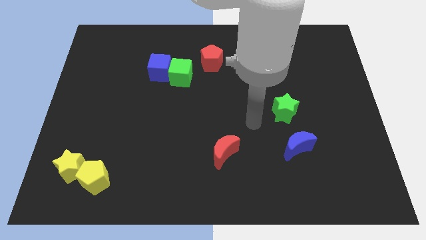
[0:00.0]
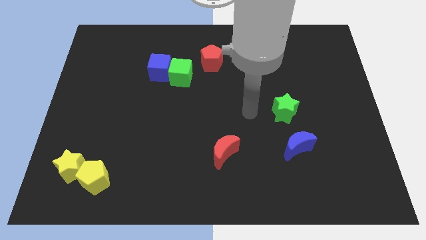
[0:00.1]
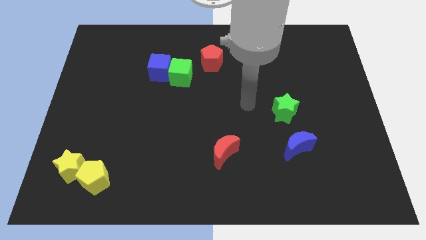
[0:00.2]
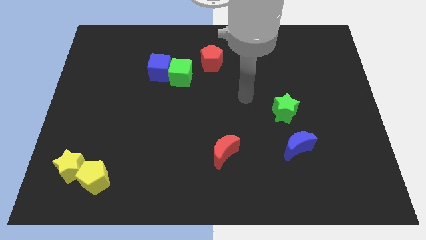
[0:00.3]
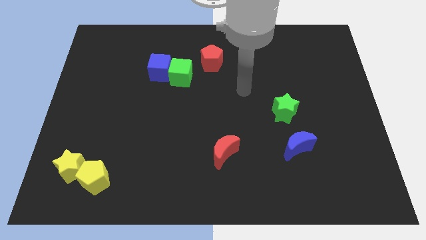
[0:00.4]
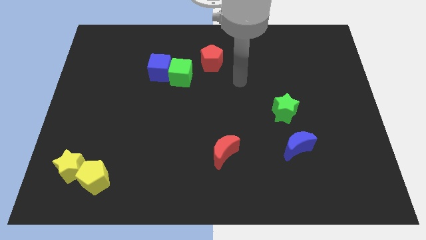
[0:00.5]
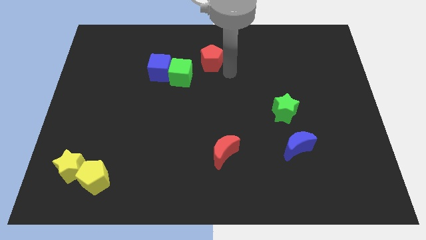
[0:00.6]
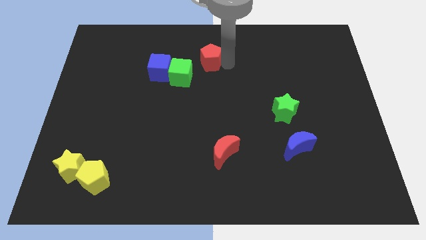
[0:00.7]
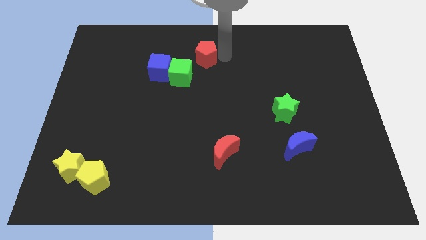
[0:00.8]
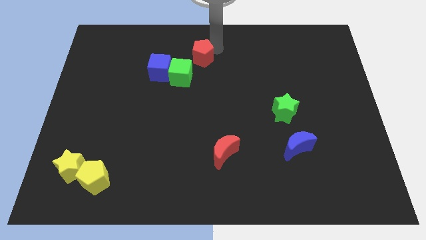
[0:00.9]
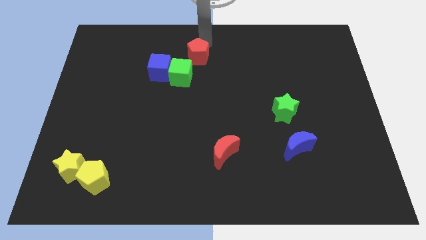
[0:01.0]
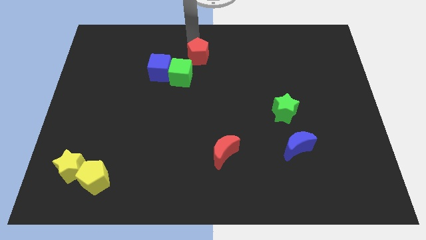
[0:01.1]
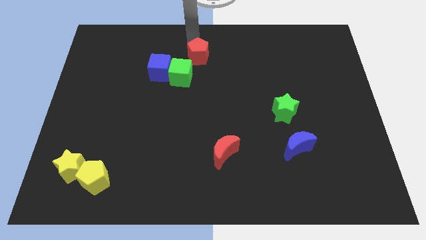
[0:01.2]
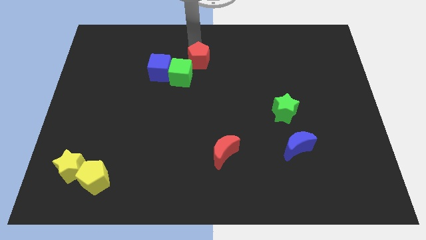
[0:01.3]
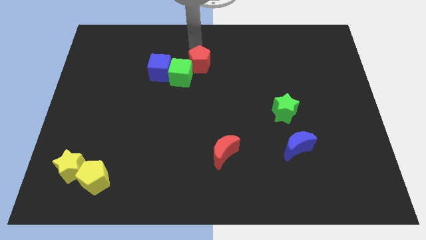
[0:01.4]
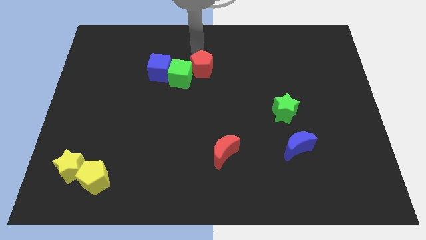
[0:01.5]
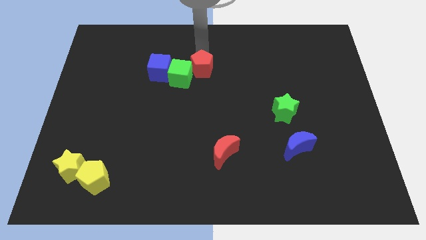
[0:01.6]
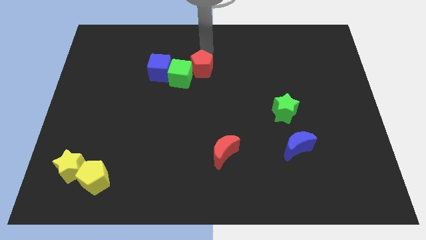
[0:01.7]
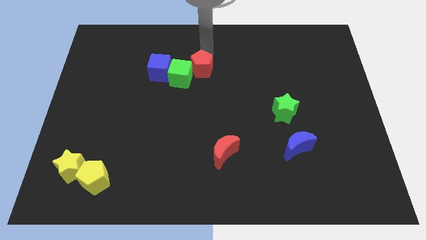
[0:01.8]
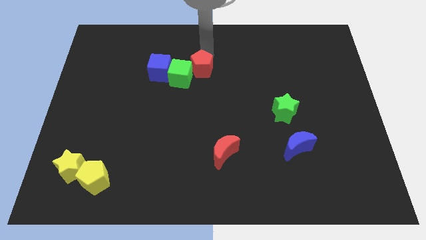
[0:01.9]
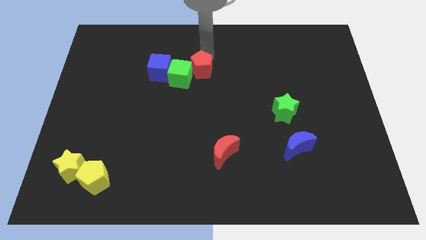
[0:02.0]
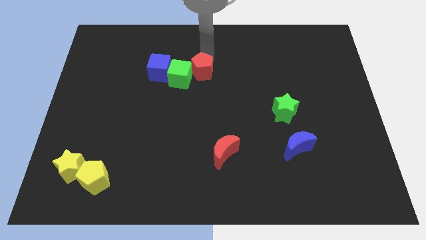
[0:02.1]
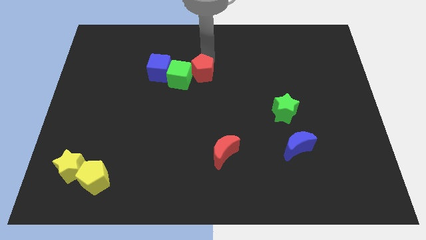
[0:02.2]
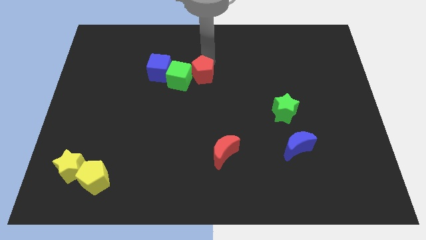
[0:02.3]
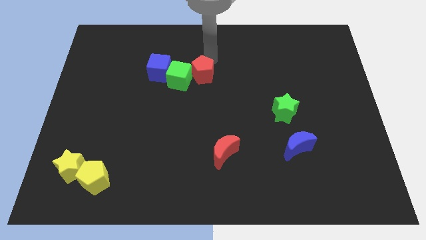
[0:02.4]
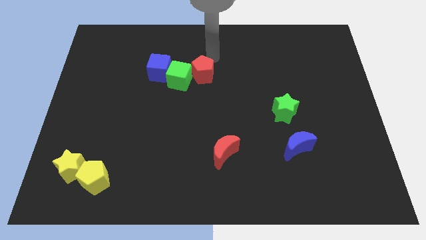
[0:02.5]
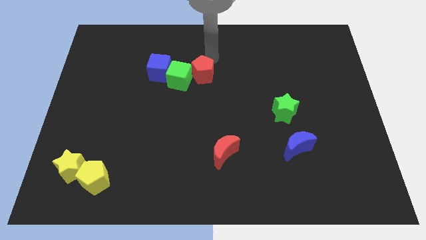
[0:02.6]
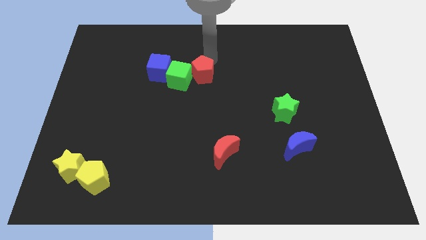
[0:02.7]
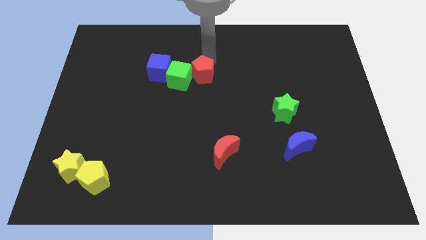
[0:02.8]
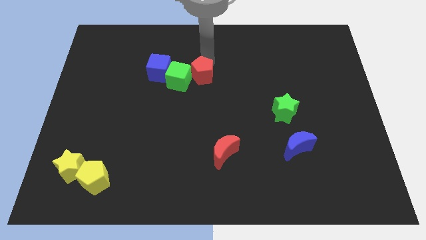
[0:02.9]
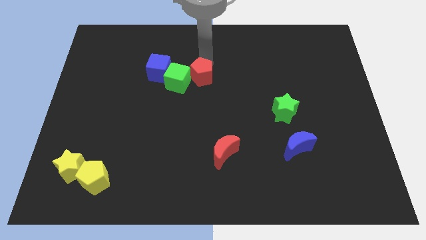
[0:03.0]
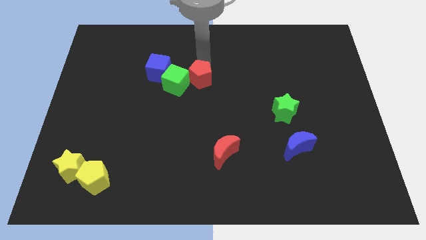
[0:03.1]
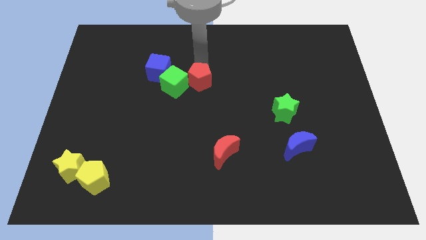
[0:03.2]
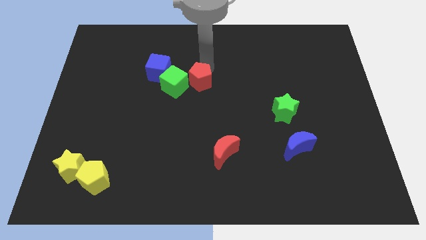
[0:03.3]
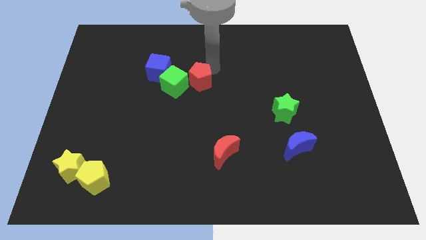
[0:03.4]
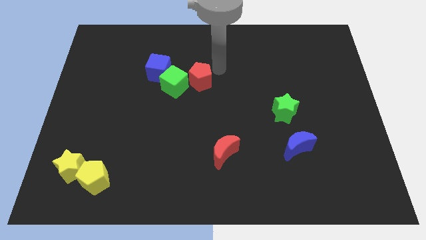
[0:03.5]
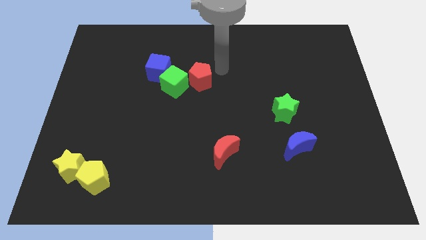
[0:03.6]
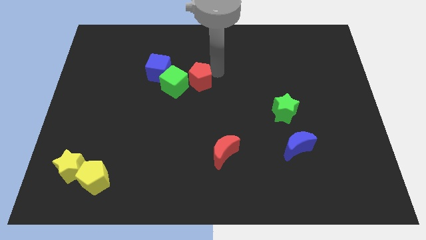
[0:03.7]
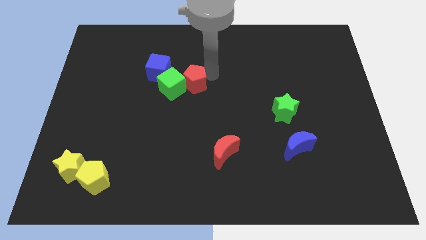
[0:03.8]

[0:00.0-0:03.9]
push the red pentagon slightly down and then to the left

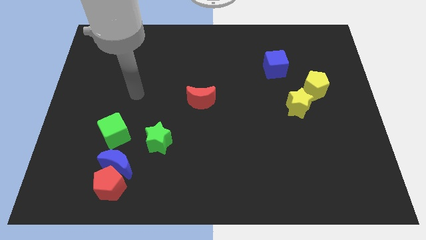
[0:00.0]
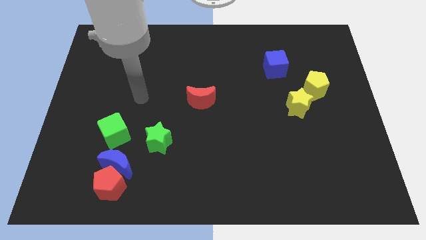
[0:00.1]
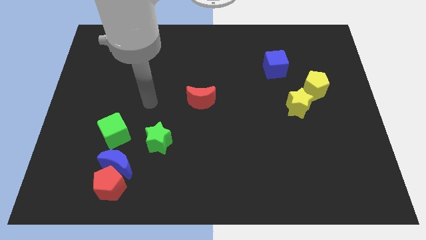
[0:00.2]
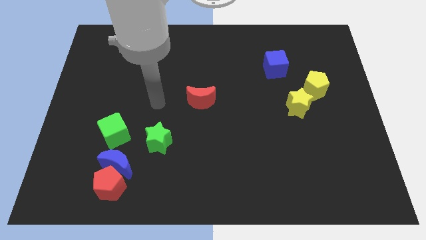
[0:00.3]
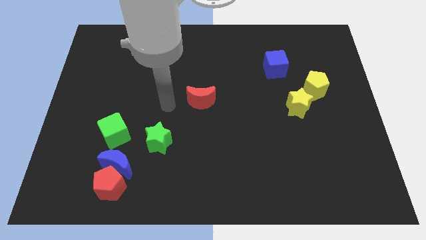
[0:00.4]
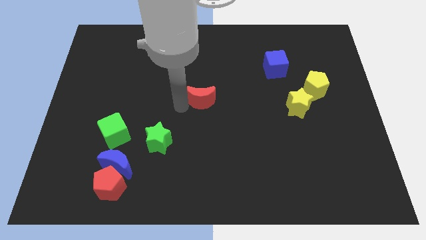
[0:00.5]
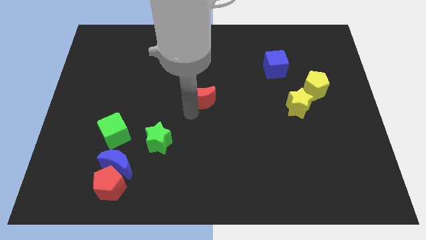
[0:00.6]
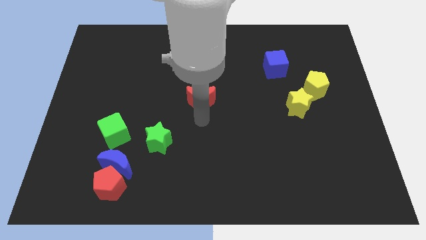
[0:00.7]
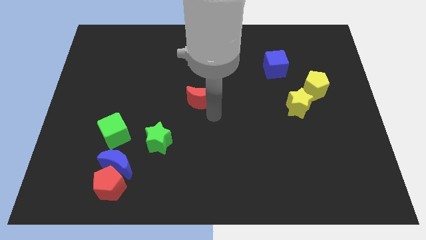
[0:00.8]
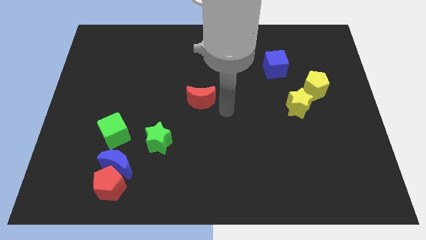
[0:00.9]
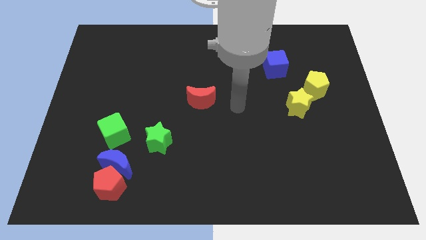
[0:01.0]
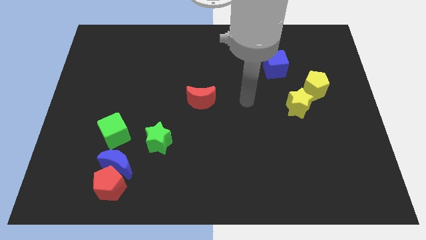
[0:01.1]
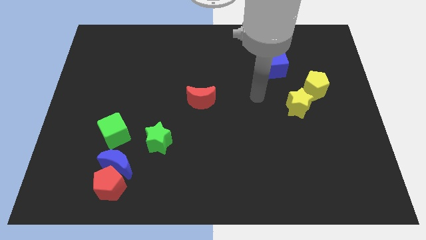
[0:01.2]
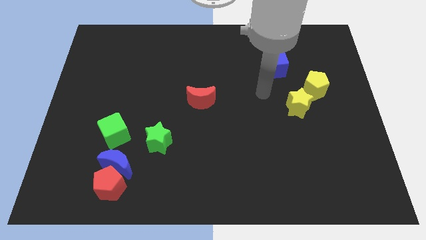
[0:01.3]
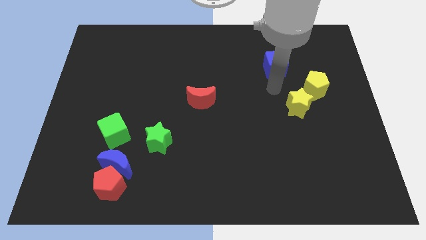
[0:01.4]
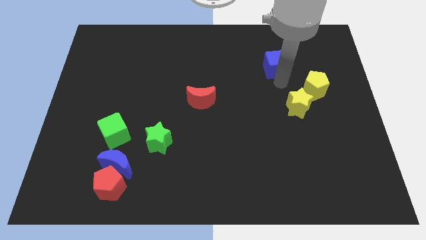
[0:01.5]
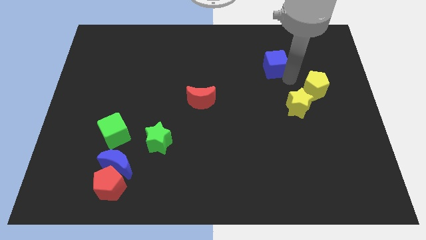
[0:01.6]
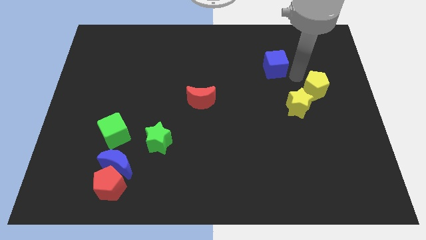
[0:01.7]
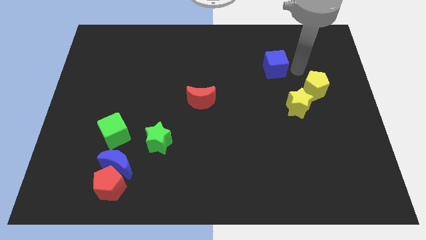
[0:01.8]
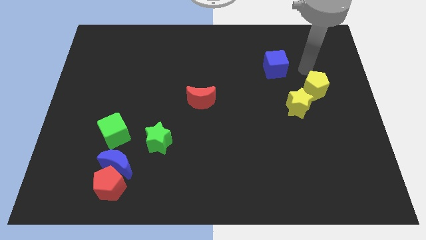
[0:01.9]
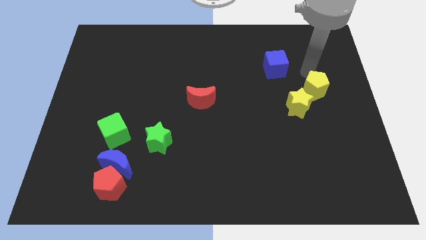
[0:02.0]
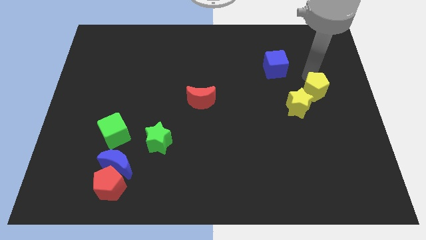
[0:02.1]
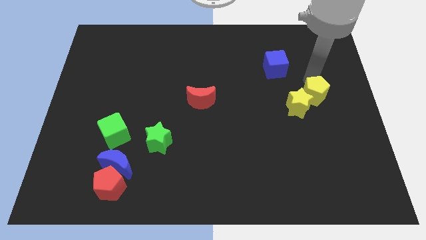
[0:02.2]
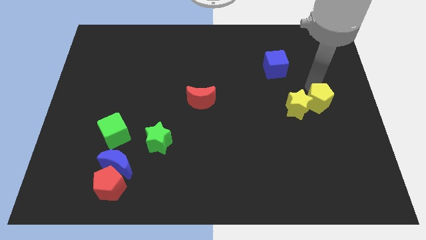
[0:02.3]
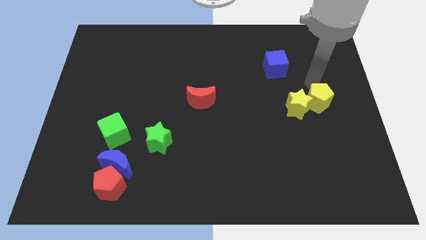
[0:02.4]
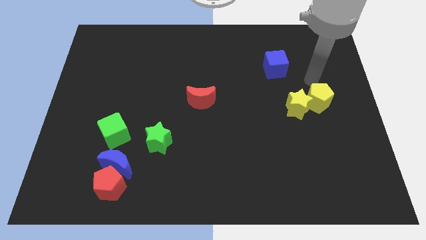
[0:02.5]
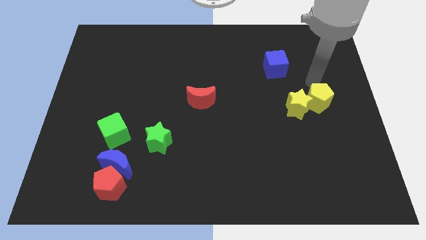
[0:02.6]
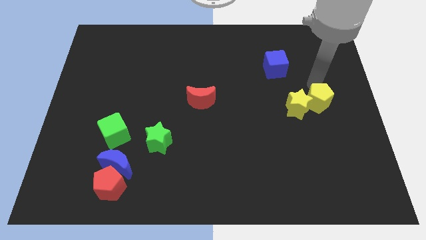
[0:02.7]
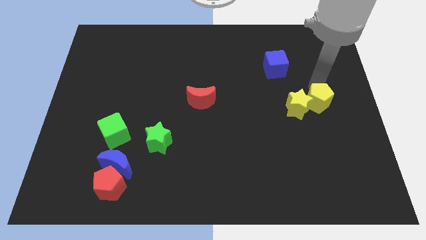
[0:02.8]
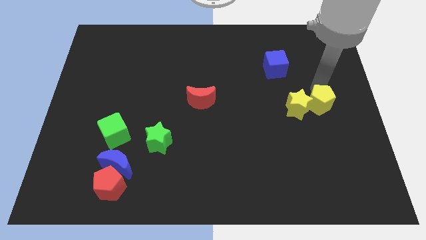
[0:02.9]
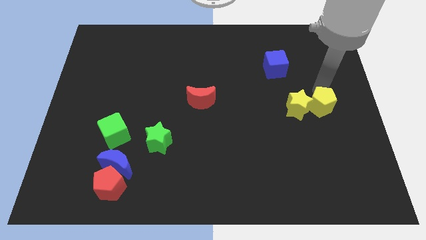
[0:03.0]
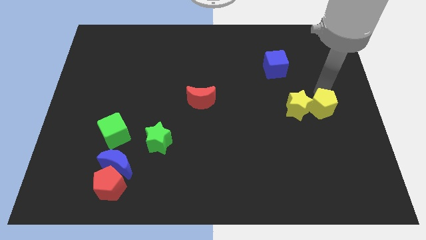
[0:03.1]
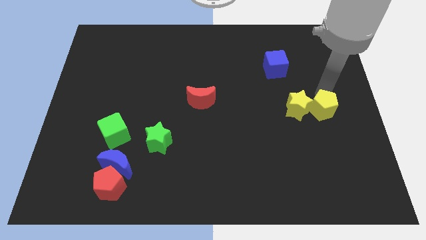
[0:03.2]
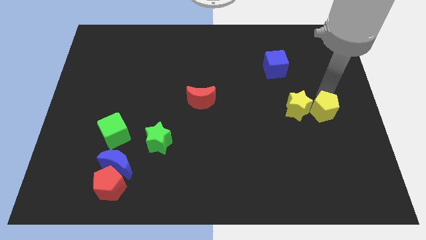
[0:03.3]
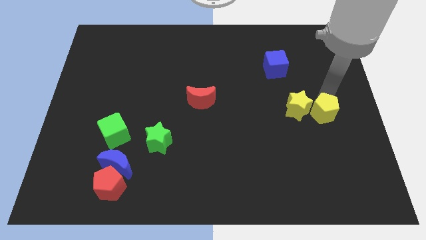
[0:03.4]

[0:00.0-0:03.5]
slide the yellow pentagon somewhat downwards
